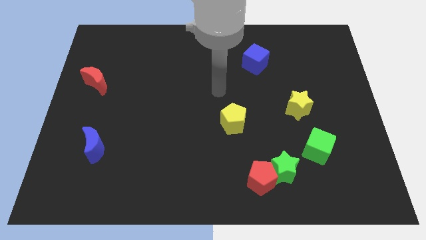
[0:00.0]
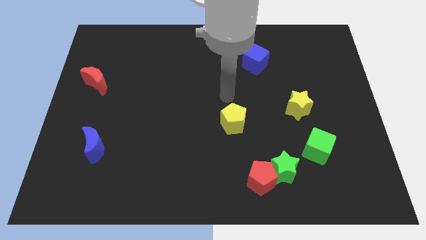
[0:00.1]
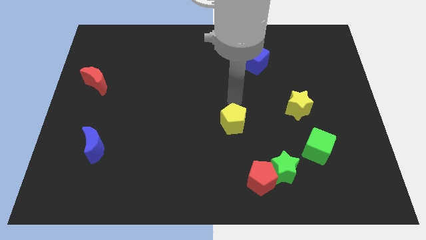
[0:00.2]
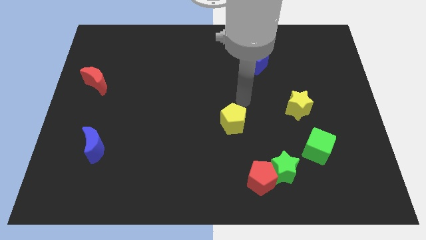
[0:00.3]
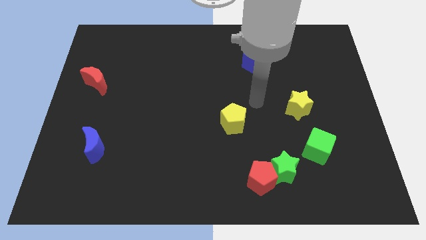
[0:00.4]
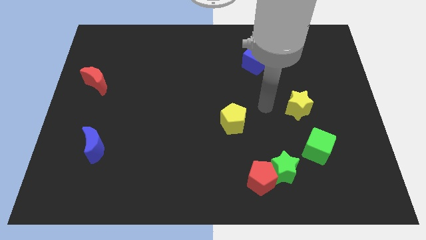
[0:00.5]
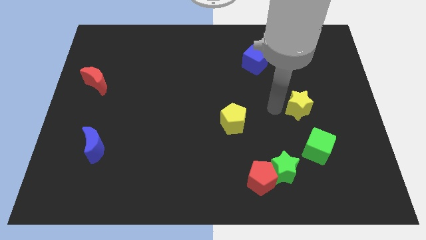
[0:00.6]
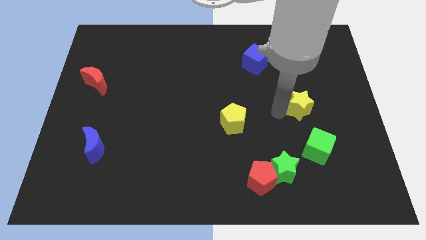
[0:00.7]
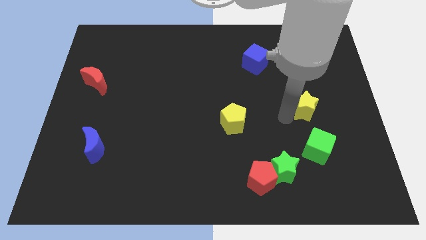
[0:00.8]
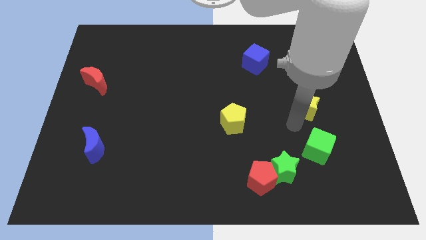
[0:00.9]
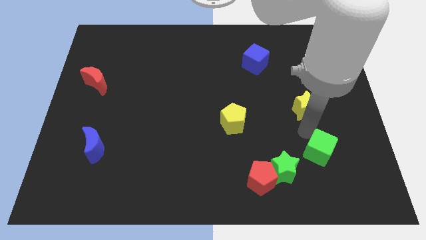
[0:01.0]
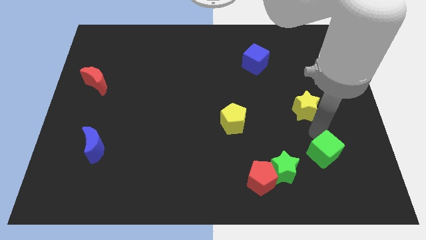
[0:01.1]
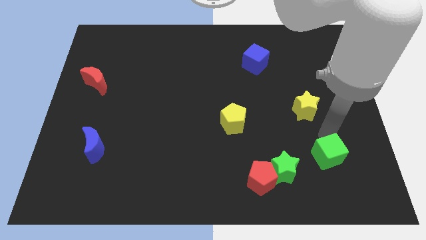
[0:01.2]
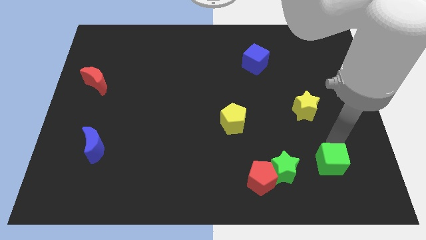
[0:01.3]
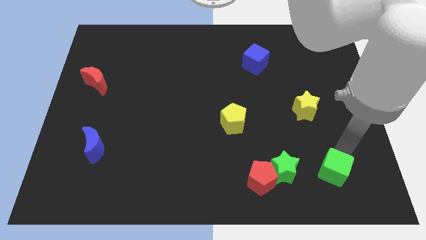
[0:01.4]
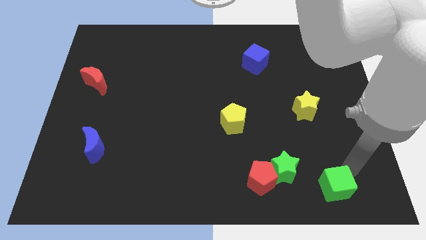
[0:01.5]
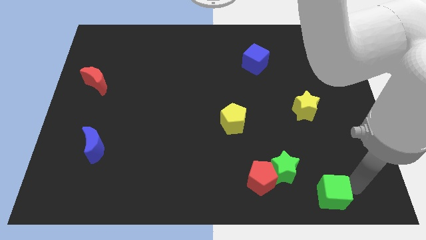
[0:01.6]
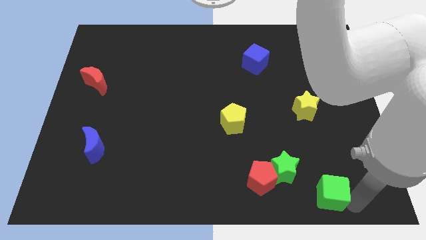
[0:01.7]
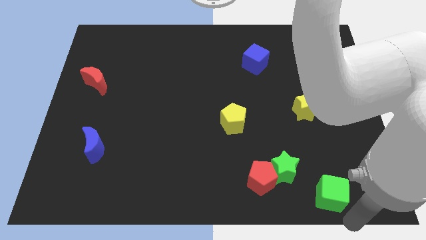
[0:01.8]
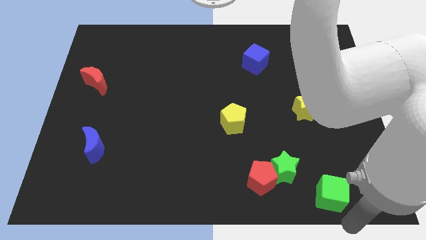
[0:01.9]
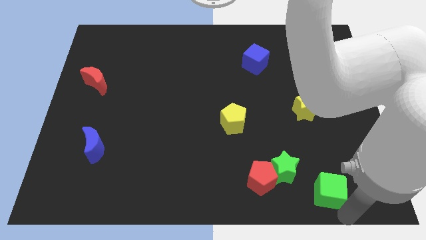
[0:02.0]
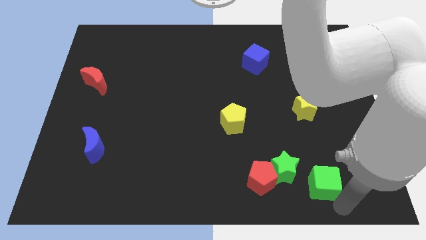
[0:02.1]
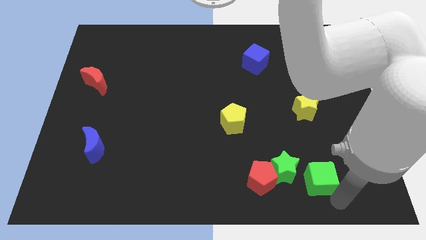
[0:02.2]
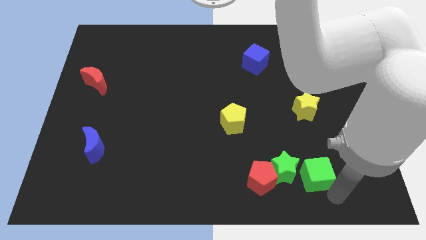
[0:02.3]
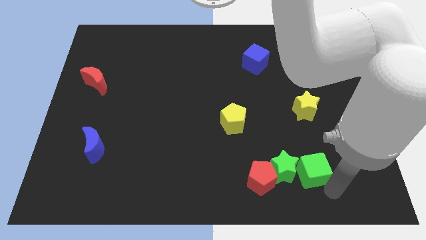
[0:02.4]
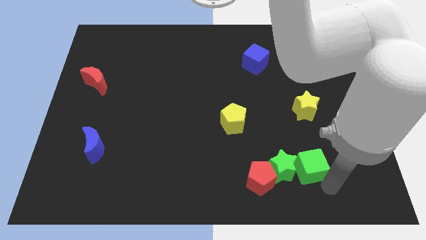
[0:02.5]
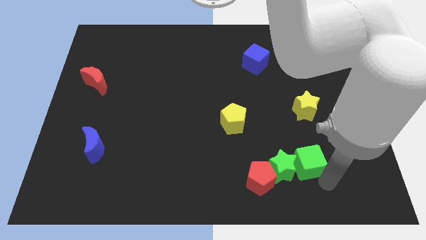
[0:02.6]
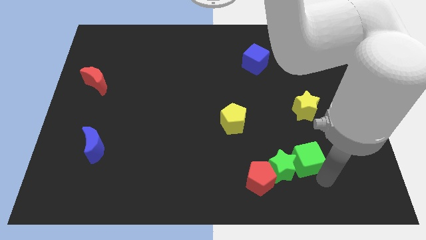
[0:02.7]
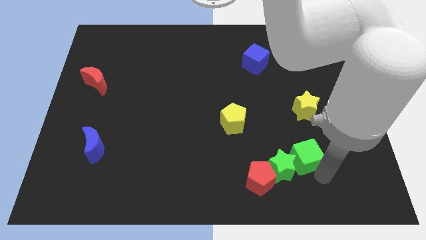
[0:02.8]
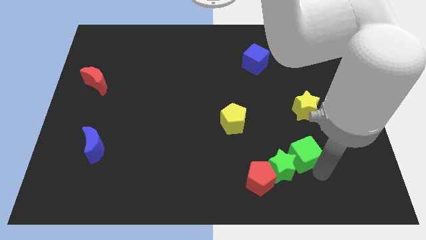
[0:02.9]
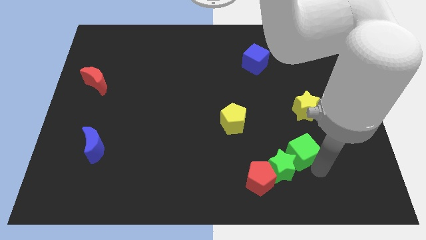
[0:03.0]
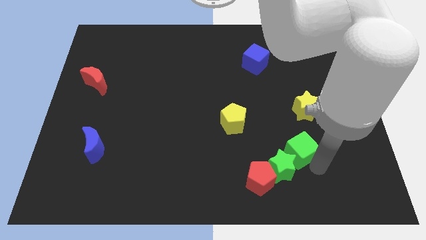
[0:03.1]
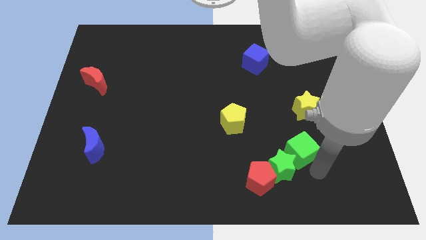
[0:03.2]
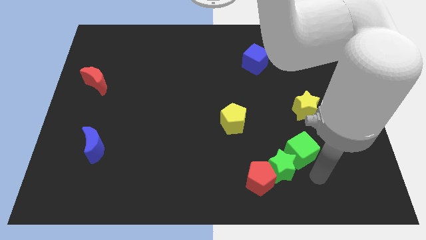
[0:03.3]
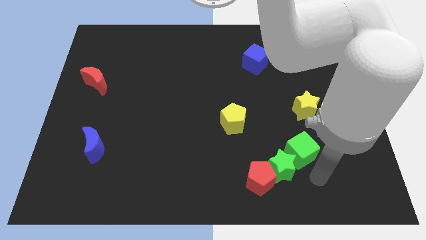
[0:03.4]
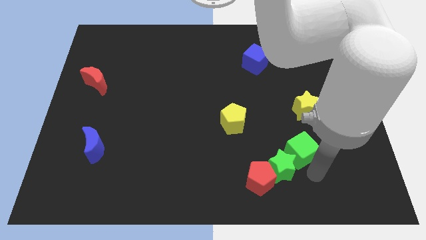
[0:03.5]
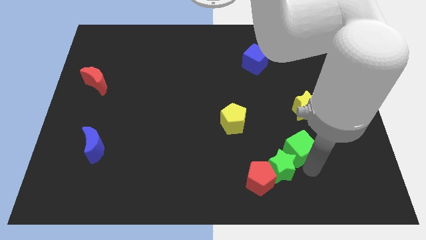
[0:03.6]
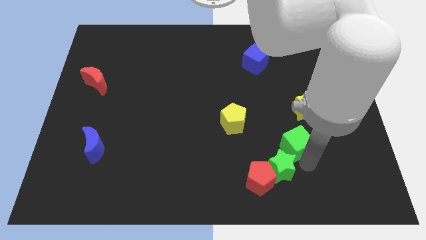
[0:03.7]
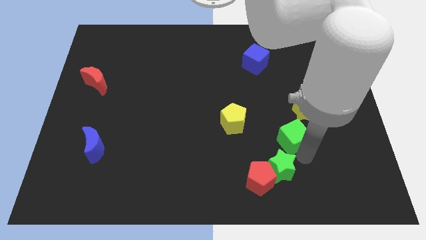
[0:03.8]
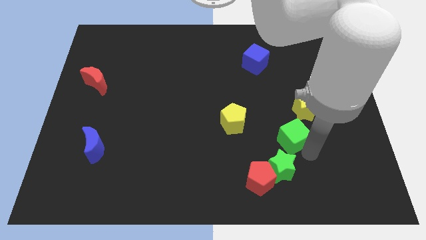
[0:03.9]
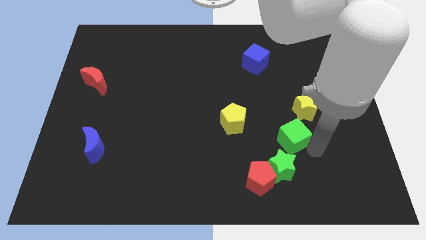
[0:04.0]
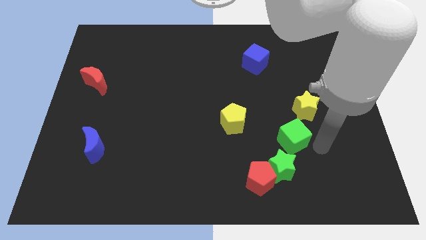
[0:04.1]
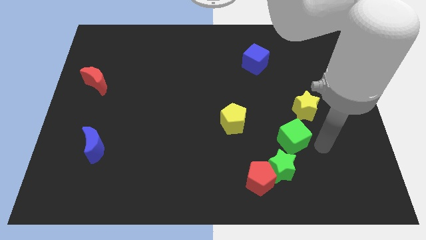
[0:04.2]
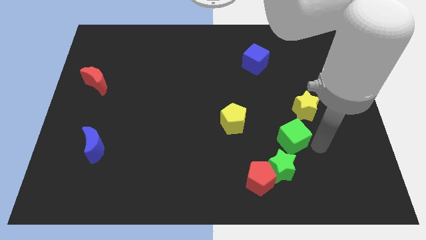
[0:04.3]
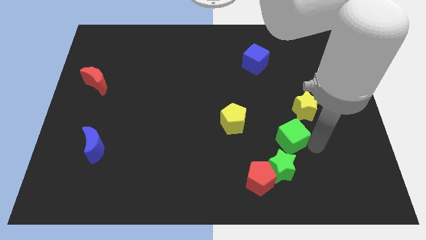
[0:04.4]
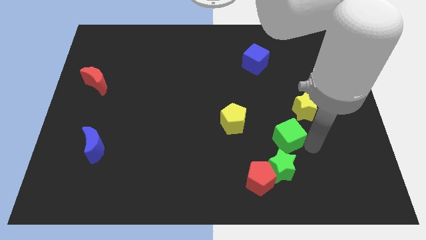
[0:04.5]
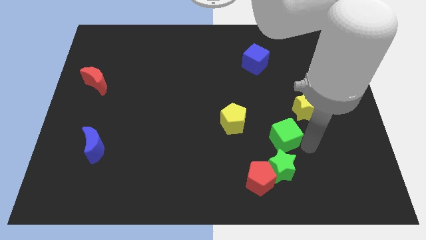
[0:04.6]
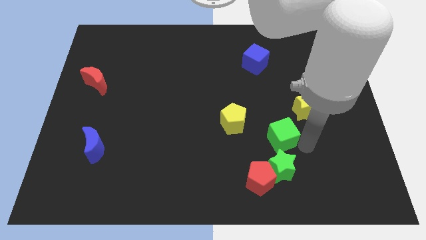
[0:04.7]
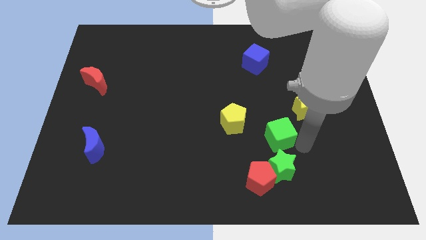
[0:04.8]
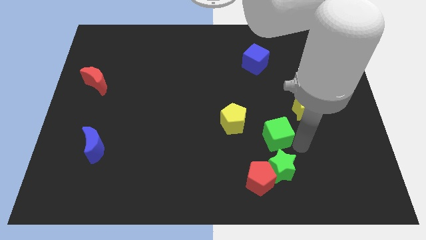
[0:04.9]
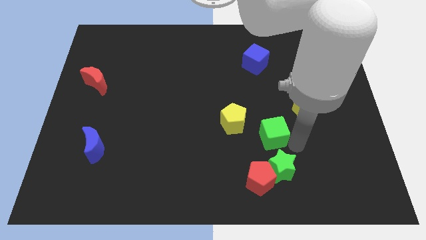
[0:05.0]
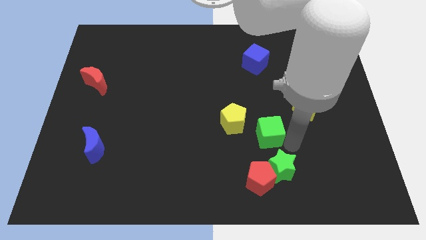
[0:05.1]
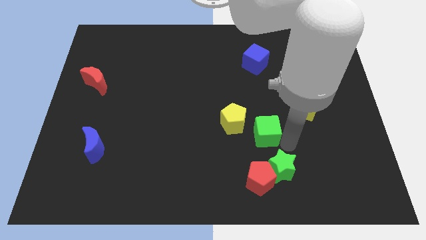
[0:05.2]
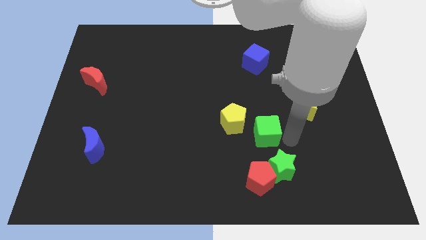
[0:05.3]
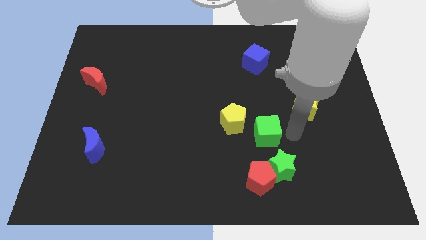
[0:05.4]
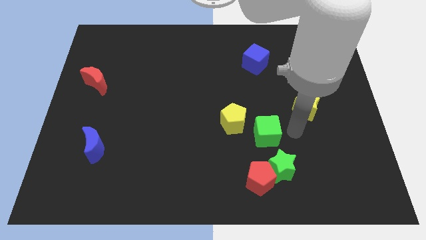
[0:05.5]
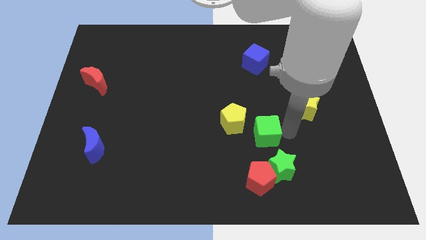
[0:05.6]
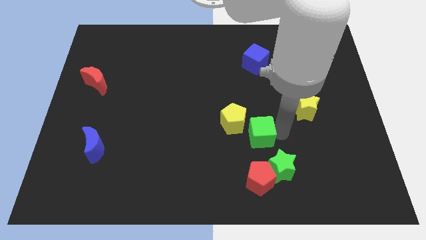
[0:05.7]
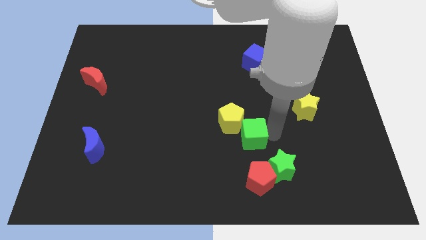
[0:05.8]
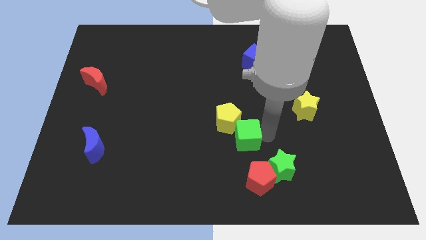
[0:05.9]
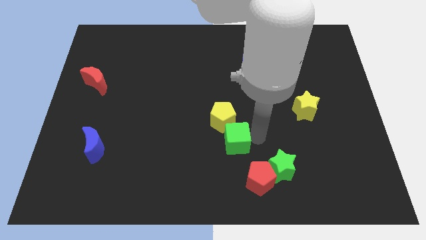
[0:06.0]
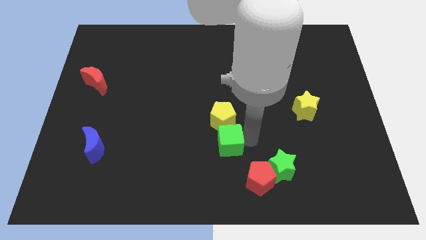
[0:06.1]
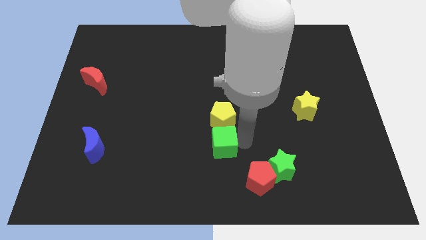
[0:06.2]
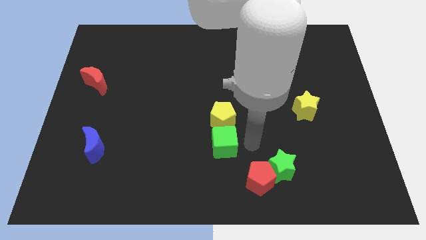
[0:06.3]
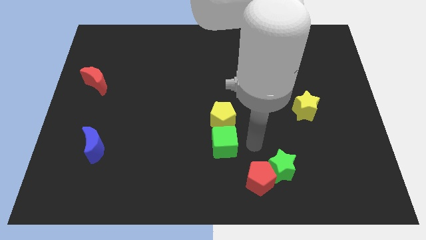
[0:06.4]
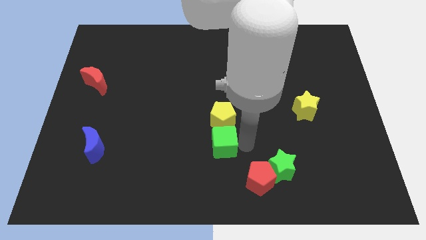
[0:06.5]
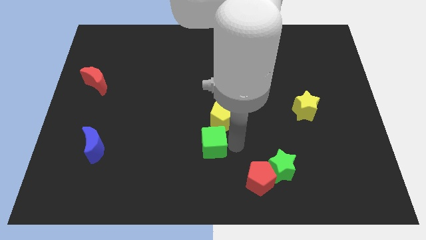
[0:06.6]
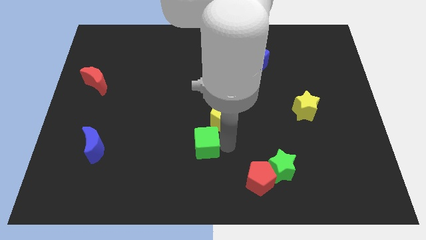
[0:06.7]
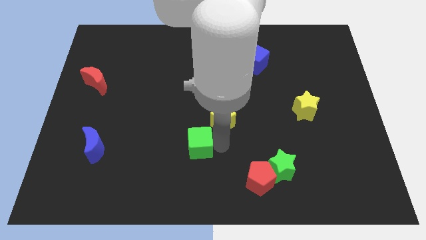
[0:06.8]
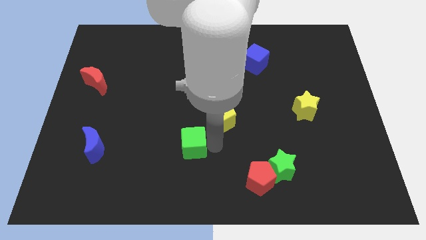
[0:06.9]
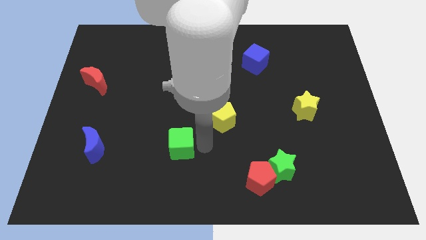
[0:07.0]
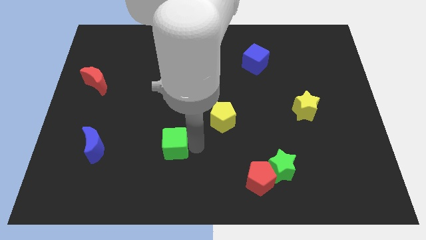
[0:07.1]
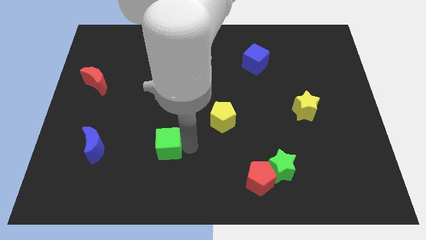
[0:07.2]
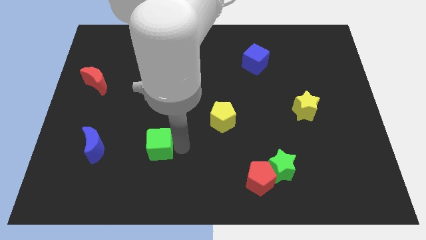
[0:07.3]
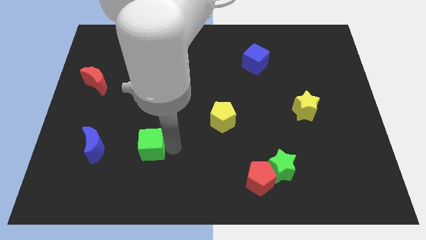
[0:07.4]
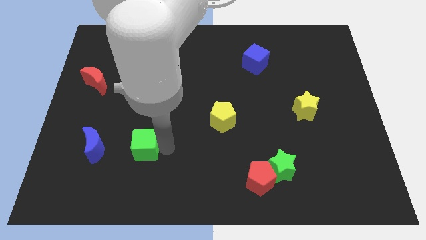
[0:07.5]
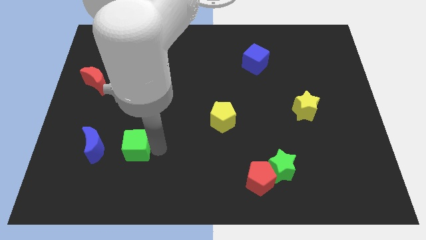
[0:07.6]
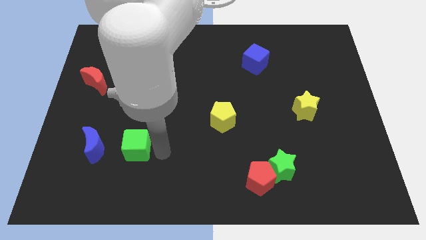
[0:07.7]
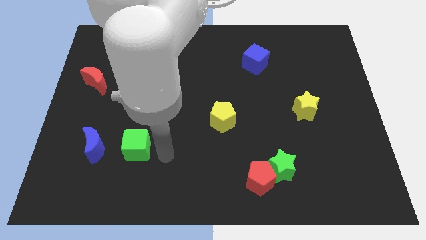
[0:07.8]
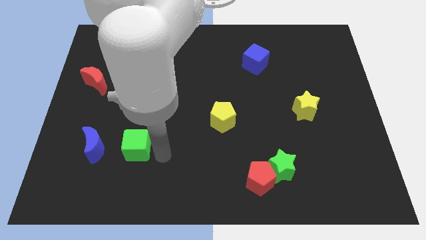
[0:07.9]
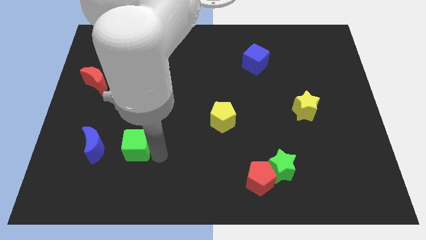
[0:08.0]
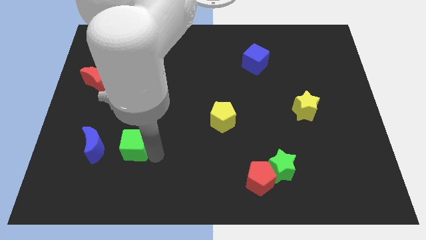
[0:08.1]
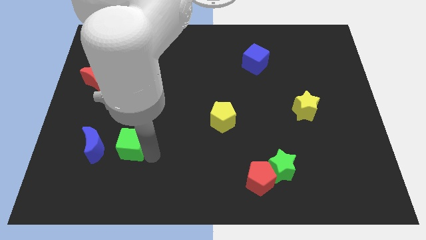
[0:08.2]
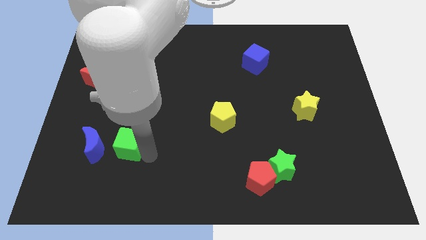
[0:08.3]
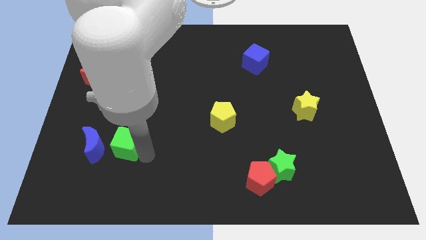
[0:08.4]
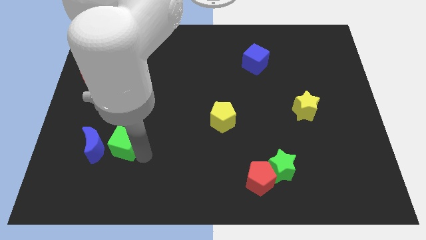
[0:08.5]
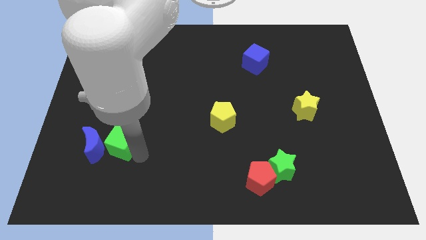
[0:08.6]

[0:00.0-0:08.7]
put the green cube next to the blue moon
